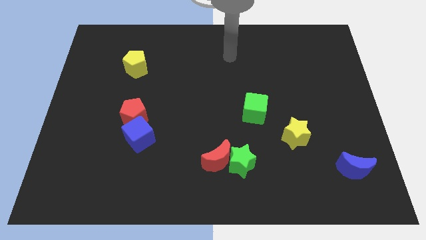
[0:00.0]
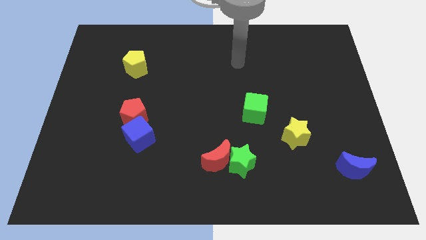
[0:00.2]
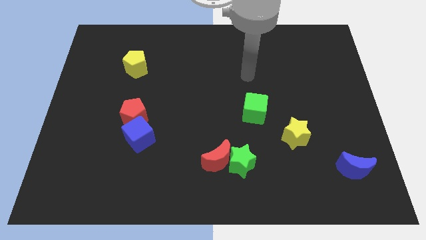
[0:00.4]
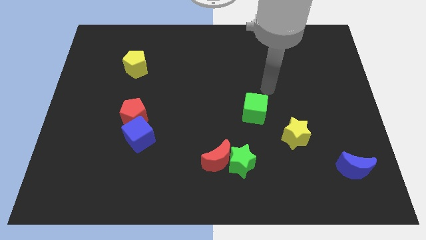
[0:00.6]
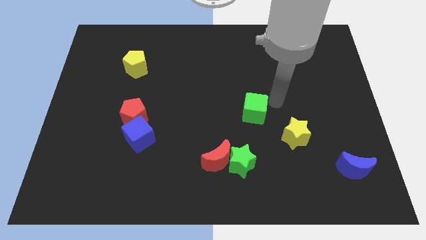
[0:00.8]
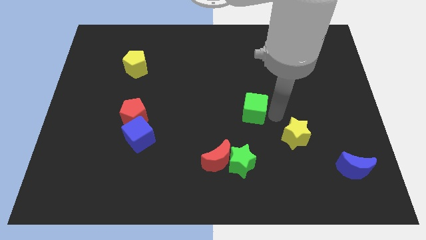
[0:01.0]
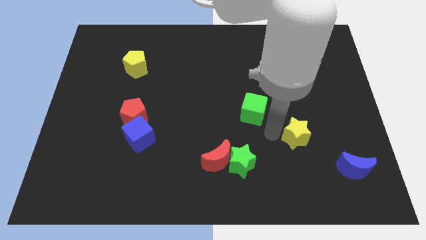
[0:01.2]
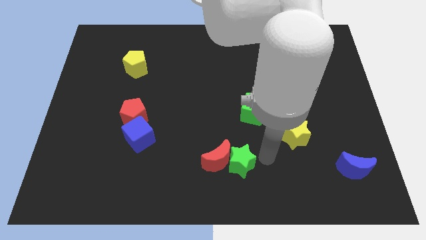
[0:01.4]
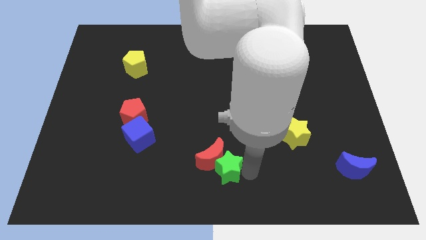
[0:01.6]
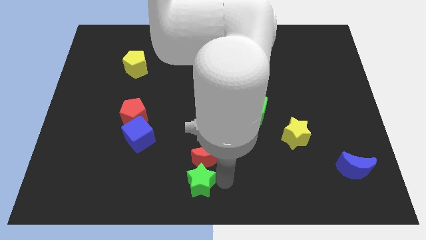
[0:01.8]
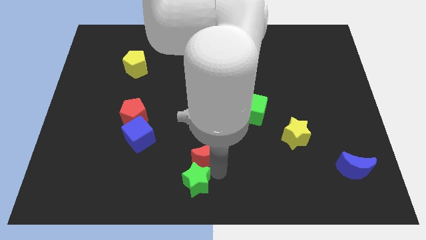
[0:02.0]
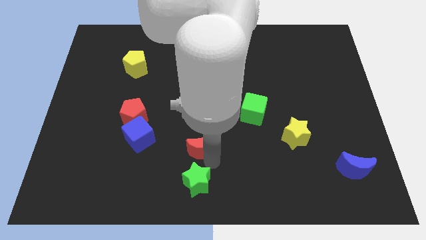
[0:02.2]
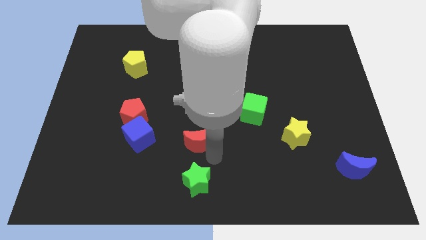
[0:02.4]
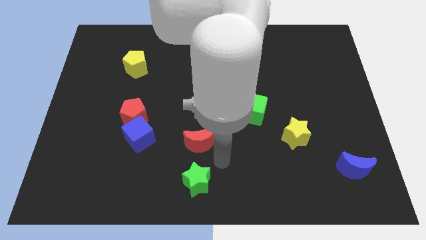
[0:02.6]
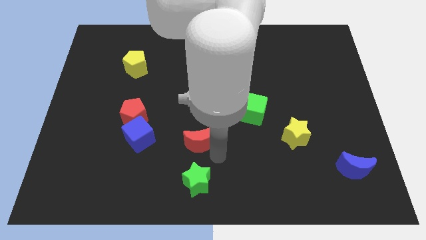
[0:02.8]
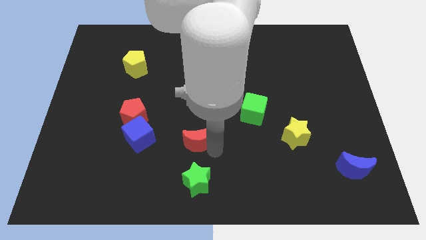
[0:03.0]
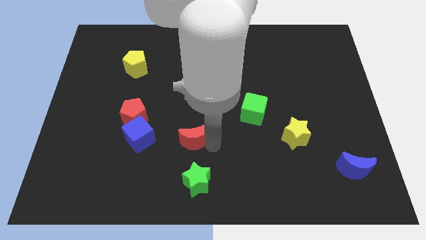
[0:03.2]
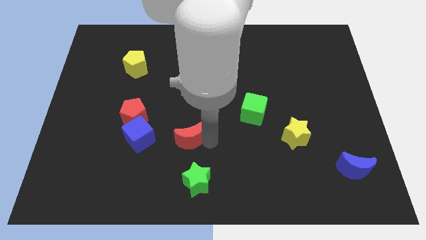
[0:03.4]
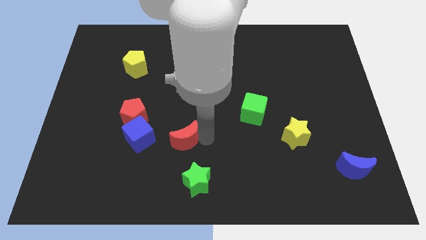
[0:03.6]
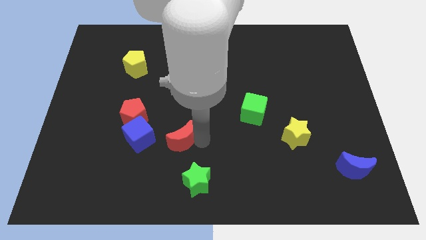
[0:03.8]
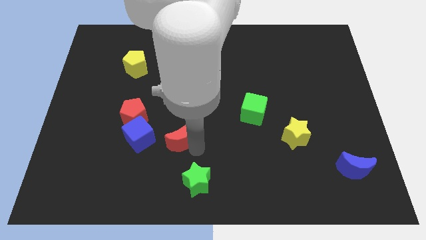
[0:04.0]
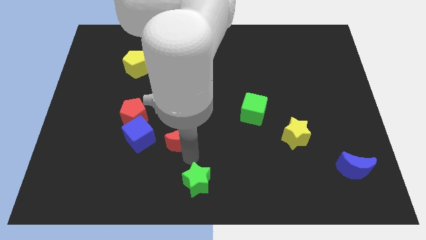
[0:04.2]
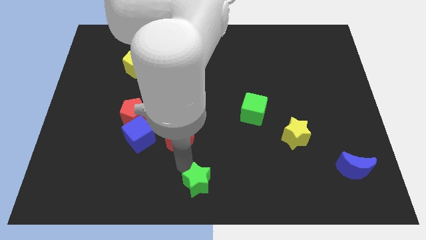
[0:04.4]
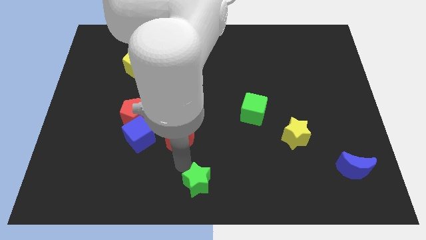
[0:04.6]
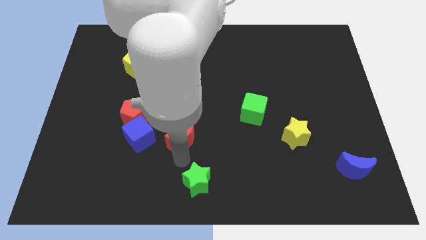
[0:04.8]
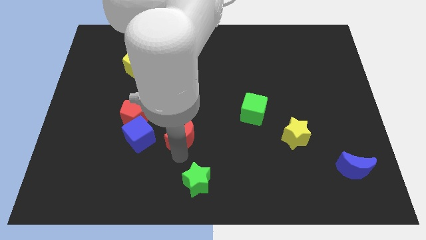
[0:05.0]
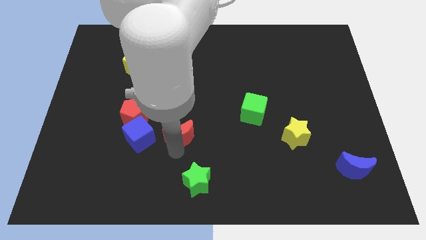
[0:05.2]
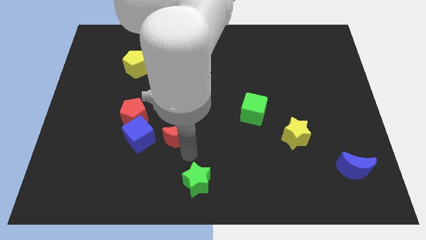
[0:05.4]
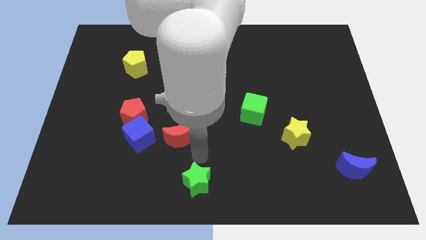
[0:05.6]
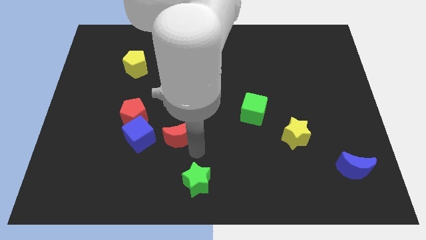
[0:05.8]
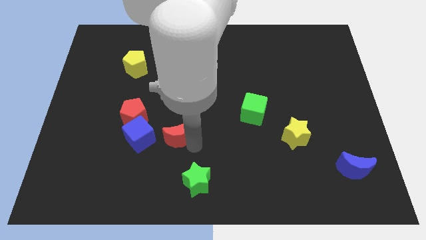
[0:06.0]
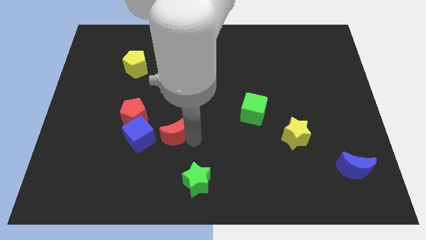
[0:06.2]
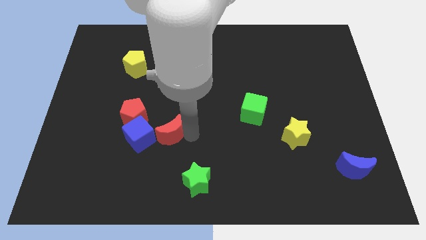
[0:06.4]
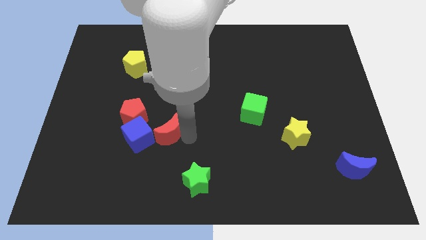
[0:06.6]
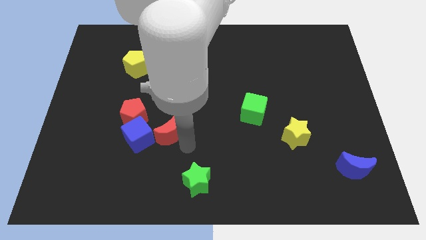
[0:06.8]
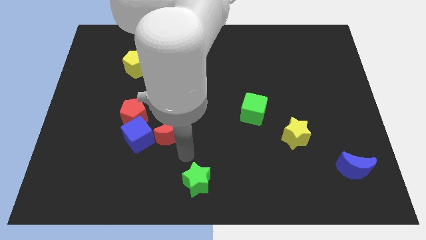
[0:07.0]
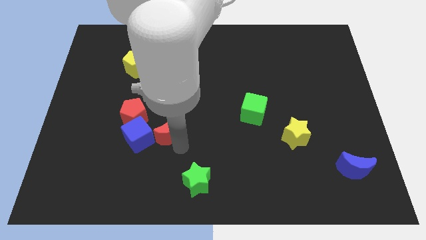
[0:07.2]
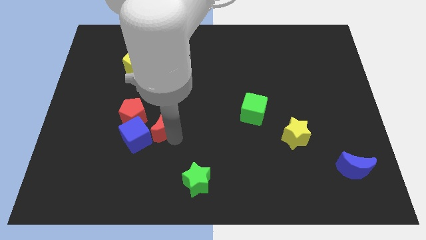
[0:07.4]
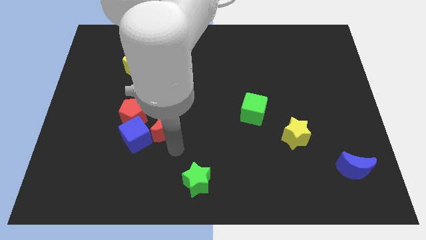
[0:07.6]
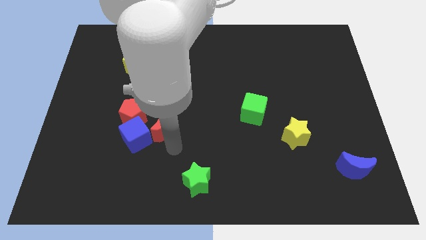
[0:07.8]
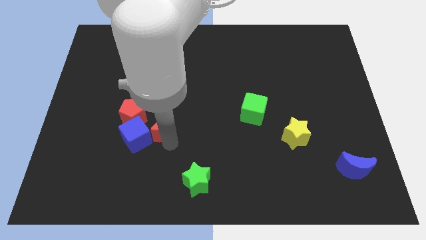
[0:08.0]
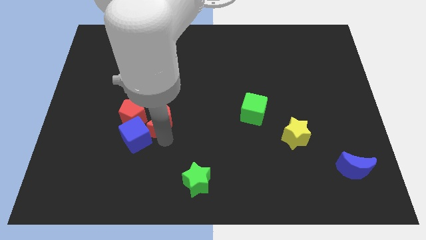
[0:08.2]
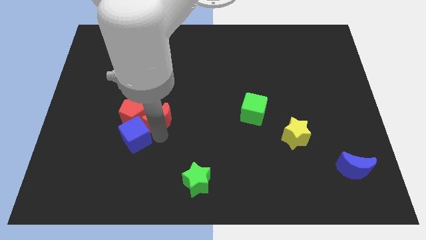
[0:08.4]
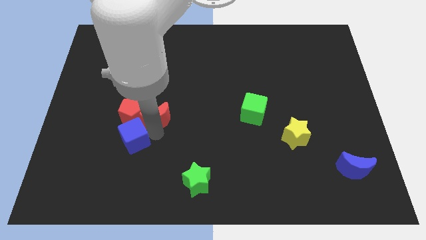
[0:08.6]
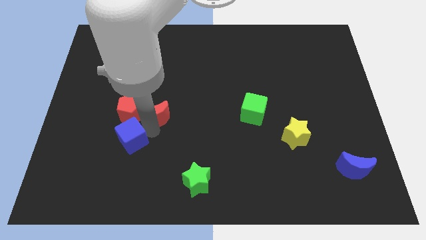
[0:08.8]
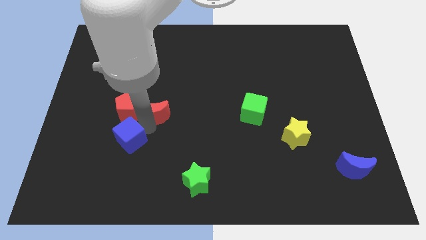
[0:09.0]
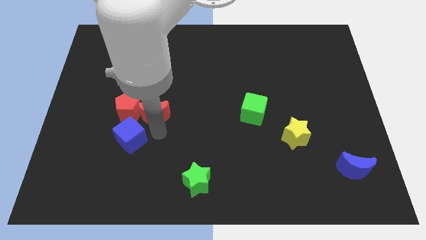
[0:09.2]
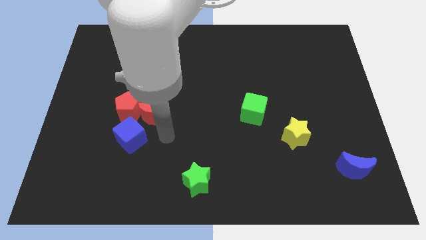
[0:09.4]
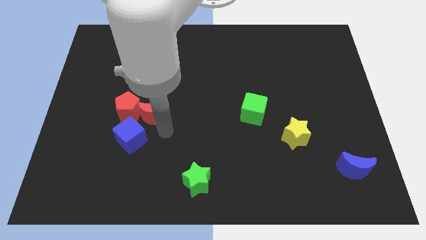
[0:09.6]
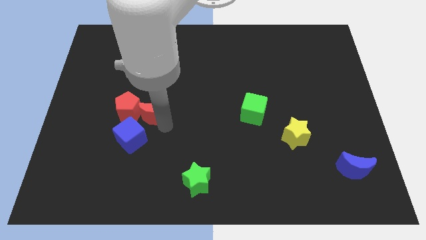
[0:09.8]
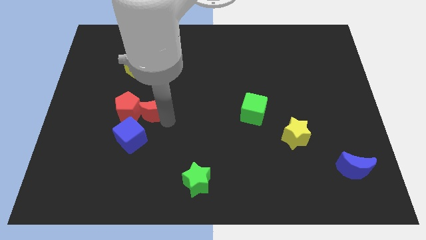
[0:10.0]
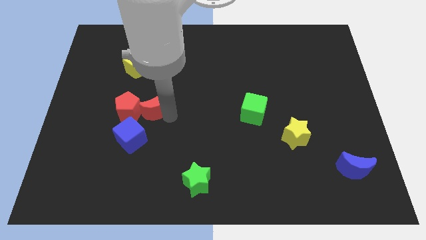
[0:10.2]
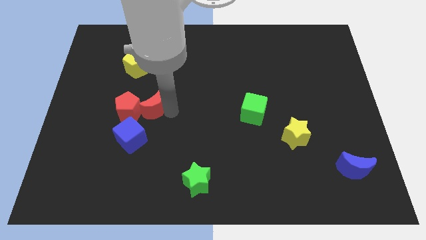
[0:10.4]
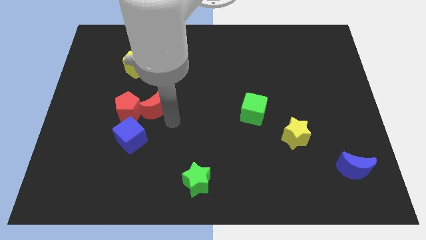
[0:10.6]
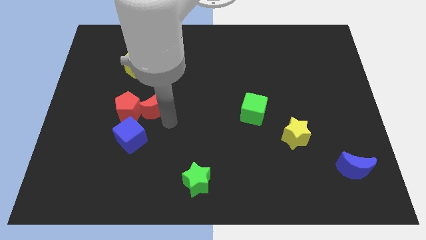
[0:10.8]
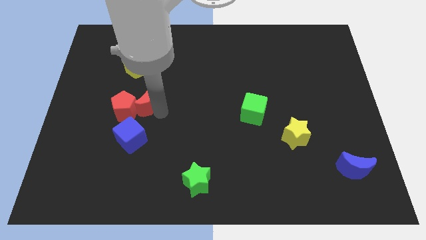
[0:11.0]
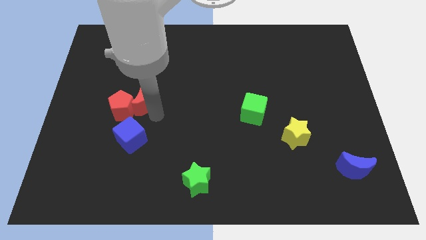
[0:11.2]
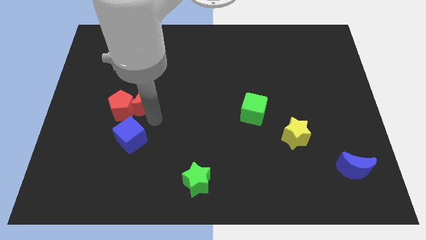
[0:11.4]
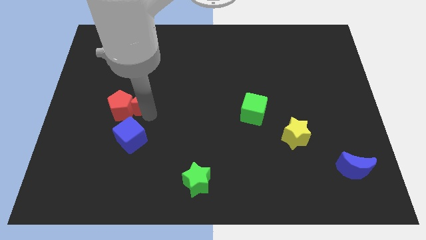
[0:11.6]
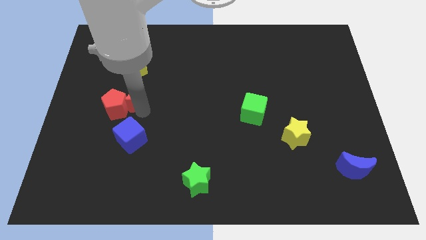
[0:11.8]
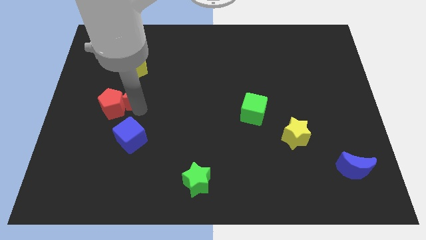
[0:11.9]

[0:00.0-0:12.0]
push the red moon to the top side of the red pentagon

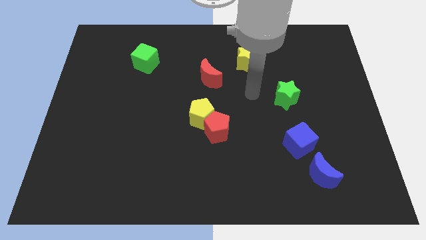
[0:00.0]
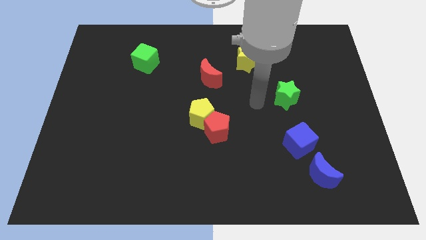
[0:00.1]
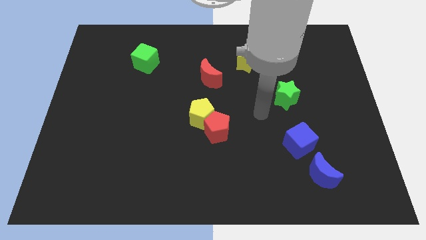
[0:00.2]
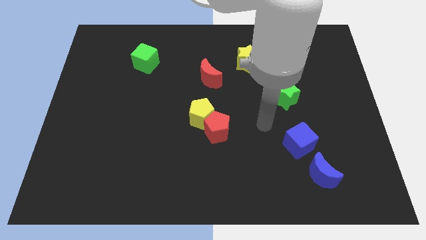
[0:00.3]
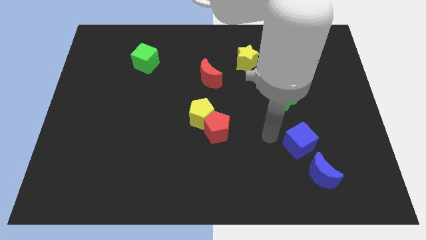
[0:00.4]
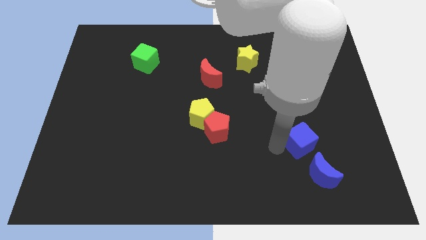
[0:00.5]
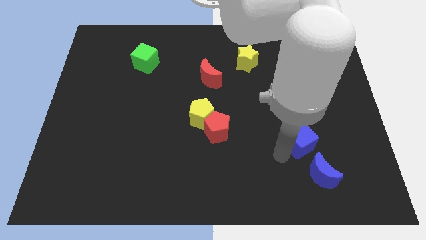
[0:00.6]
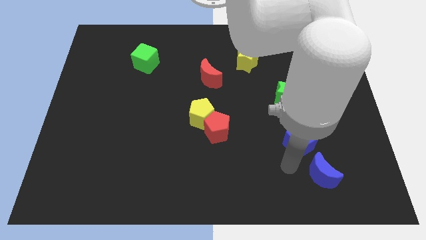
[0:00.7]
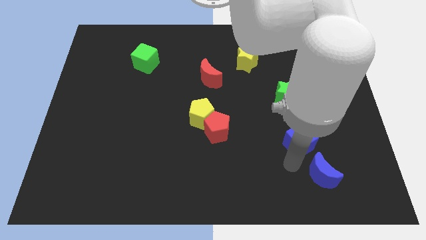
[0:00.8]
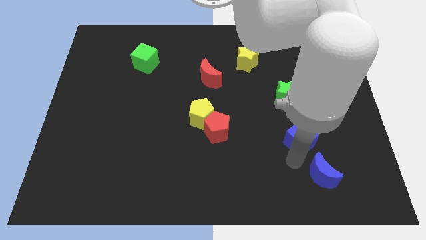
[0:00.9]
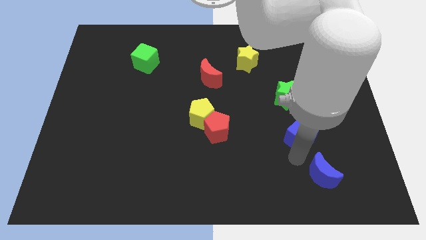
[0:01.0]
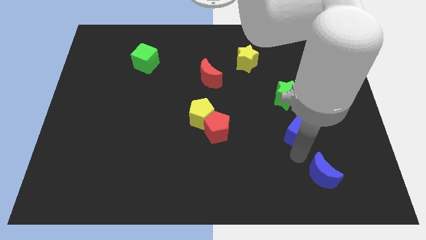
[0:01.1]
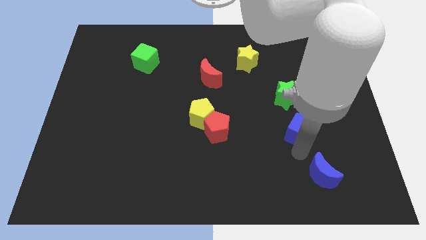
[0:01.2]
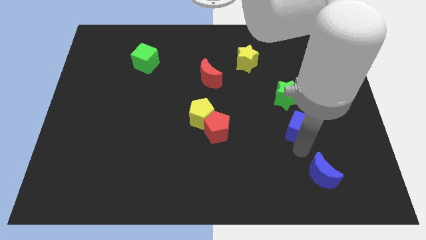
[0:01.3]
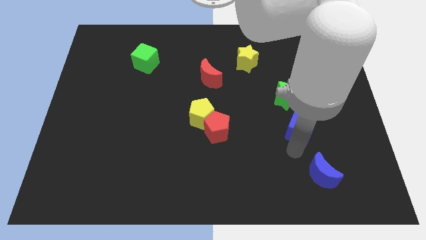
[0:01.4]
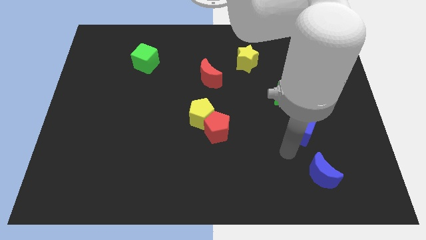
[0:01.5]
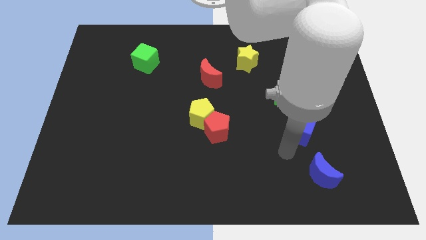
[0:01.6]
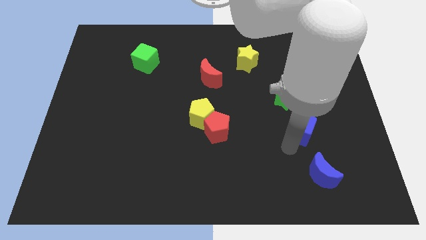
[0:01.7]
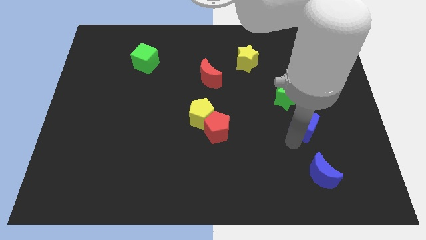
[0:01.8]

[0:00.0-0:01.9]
slide the blue cube to the bottom right side of the green star
